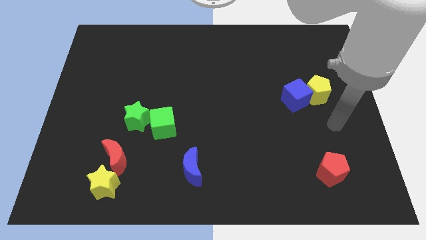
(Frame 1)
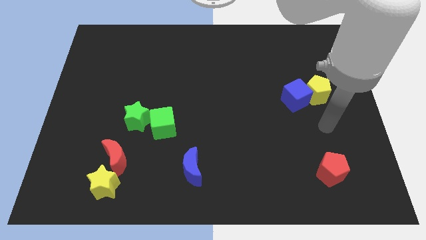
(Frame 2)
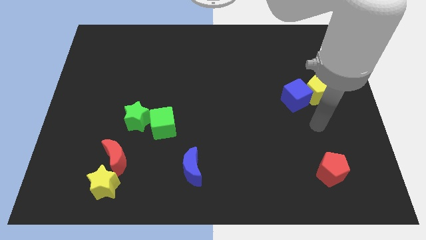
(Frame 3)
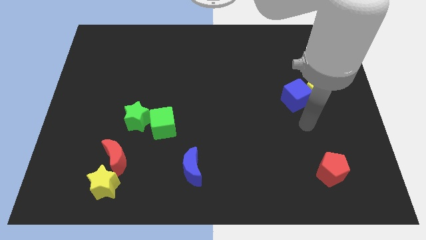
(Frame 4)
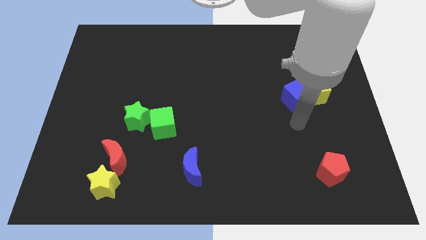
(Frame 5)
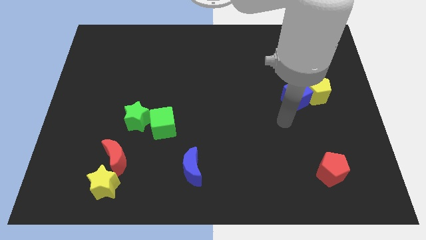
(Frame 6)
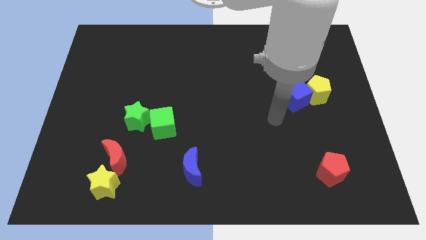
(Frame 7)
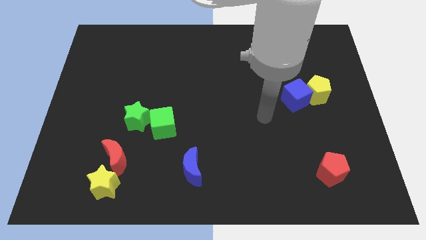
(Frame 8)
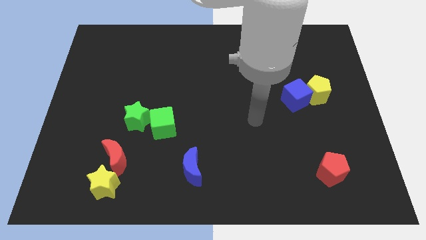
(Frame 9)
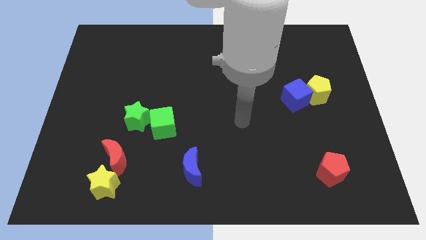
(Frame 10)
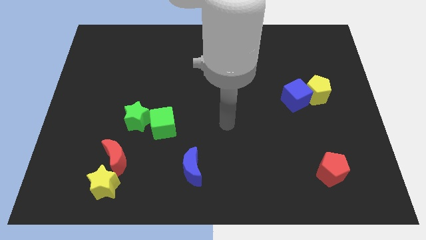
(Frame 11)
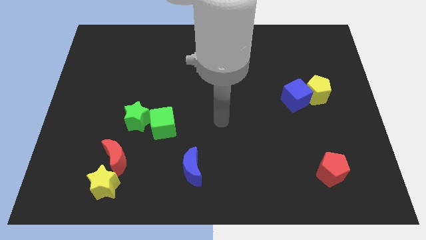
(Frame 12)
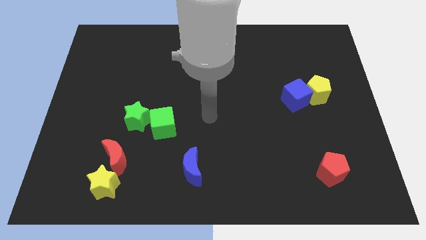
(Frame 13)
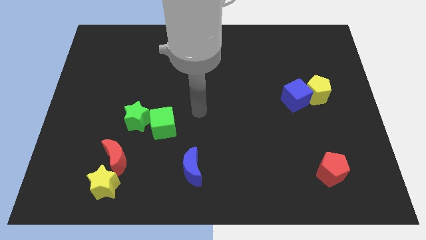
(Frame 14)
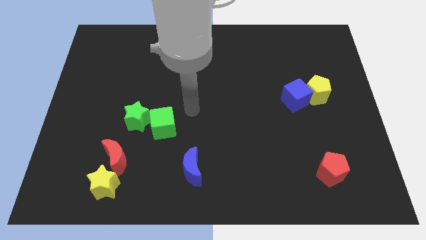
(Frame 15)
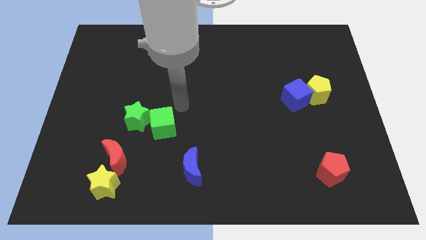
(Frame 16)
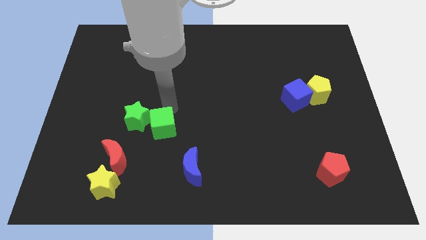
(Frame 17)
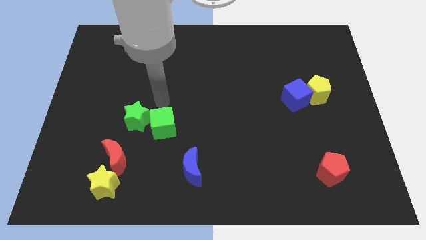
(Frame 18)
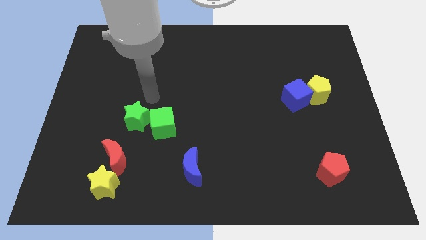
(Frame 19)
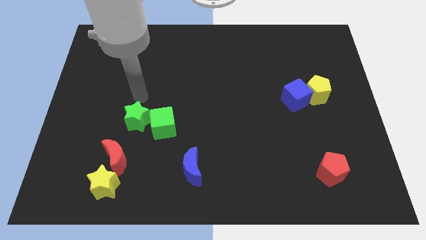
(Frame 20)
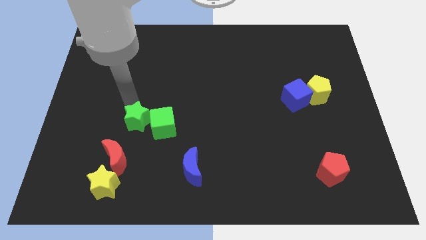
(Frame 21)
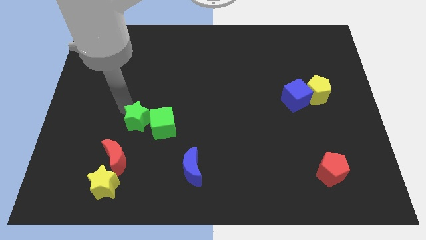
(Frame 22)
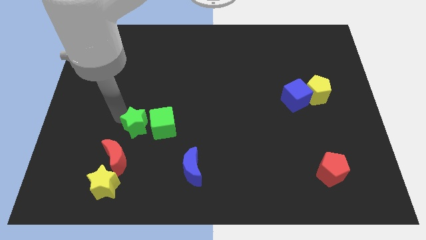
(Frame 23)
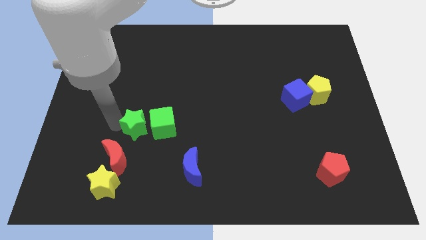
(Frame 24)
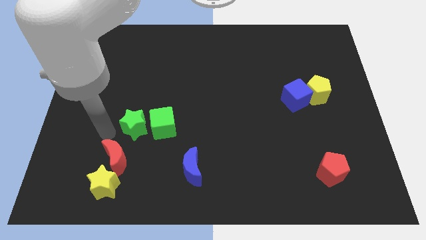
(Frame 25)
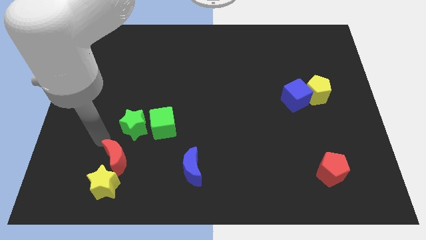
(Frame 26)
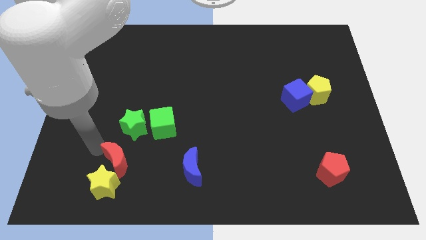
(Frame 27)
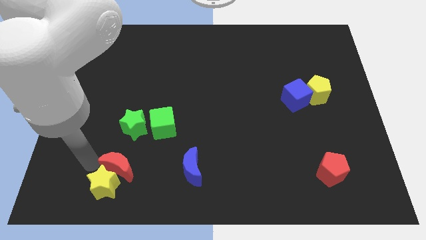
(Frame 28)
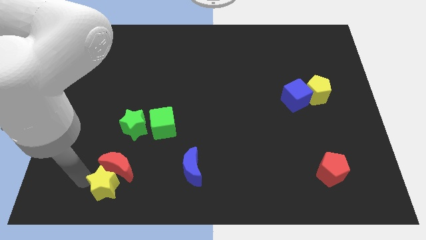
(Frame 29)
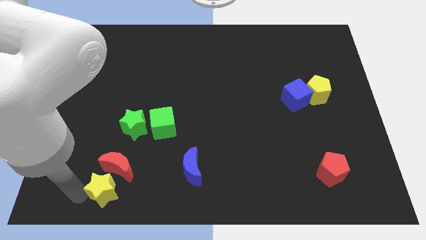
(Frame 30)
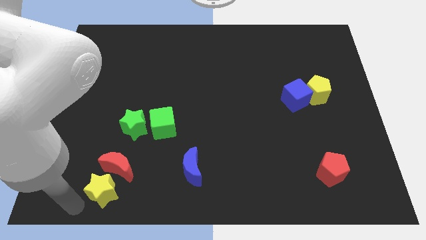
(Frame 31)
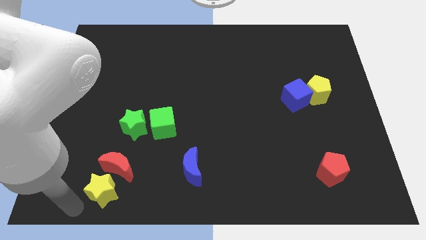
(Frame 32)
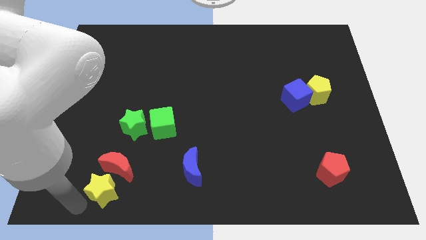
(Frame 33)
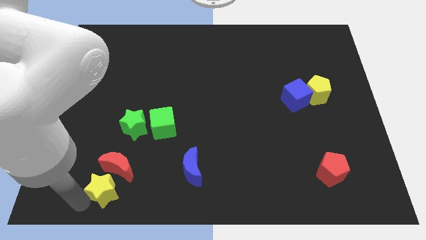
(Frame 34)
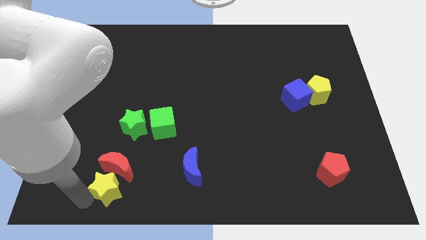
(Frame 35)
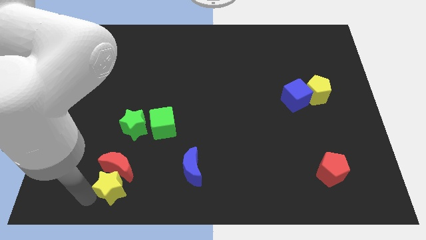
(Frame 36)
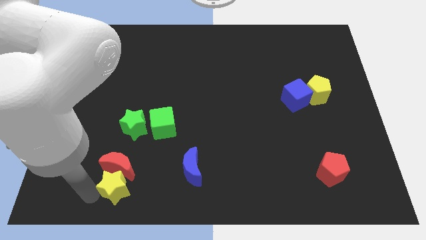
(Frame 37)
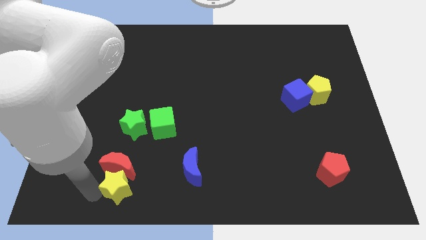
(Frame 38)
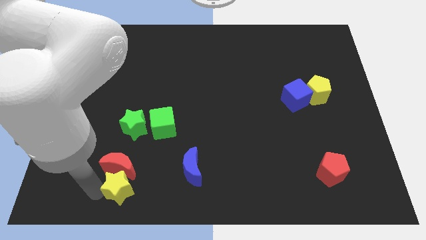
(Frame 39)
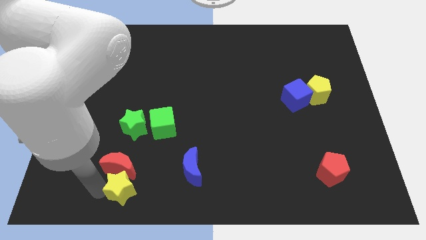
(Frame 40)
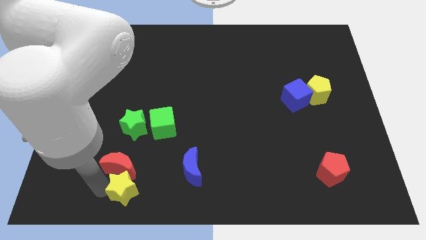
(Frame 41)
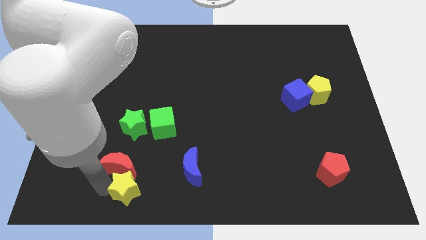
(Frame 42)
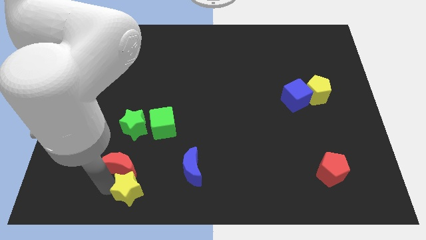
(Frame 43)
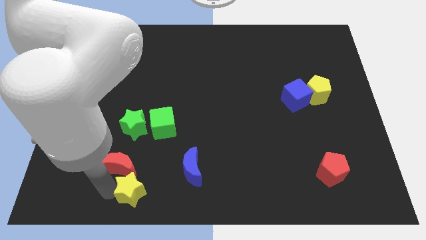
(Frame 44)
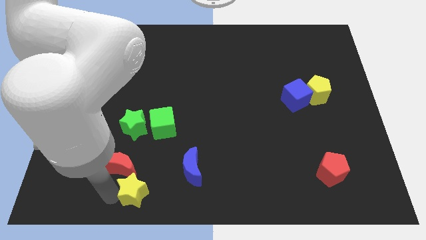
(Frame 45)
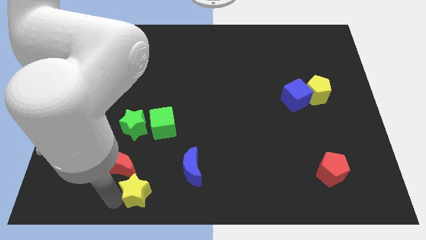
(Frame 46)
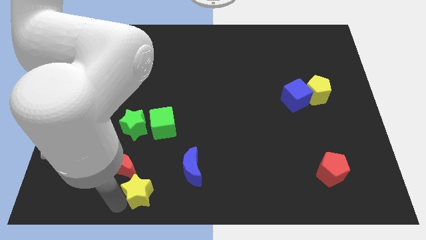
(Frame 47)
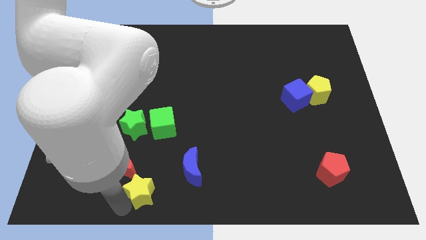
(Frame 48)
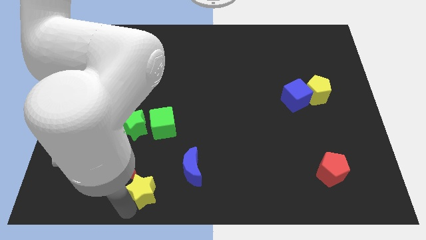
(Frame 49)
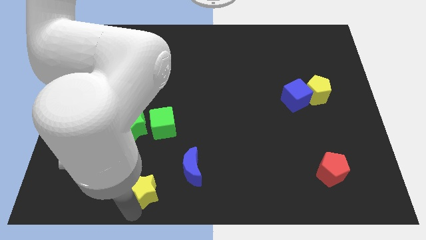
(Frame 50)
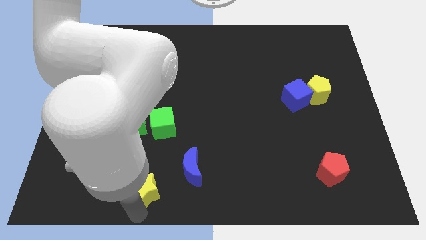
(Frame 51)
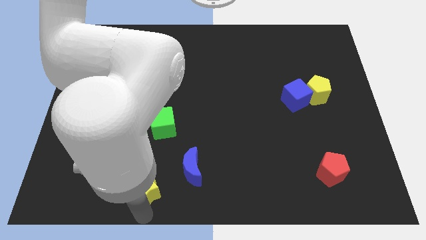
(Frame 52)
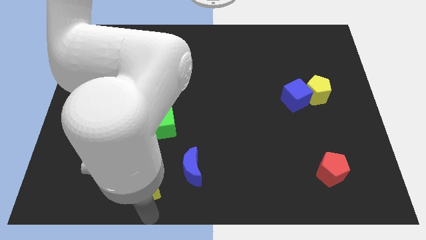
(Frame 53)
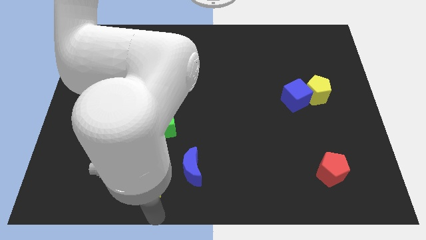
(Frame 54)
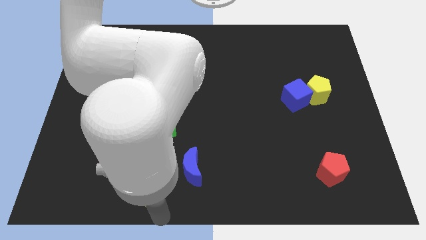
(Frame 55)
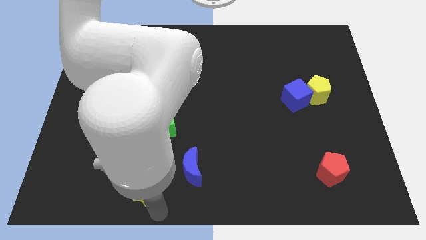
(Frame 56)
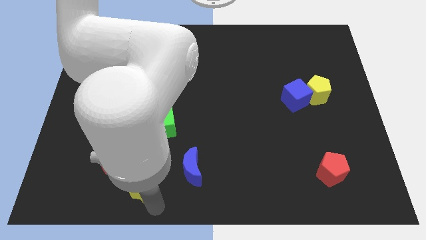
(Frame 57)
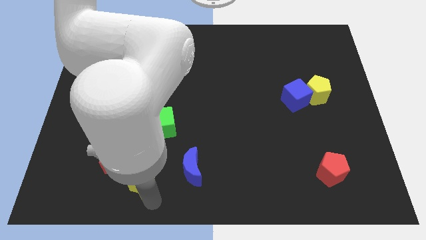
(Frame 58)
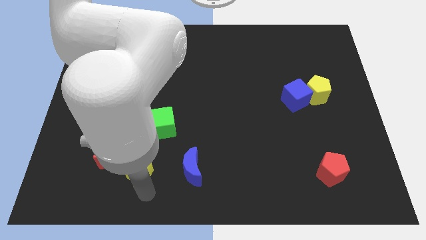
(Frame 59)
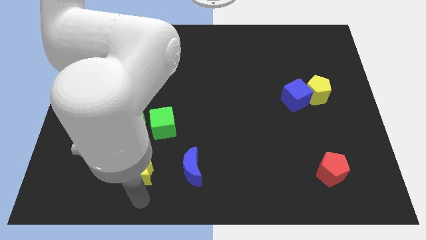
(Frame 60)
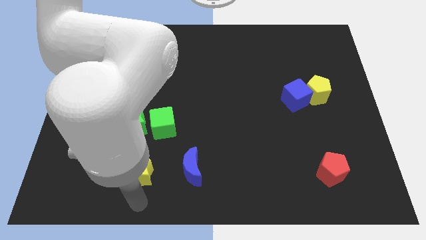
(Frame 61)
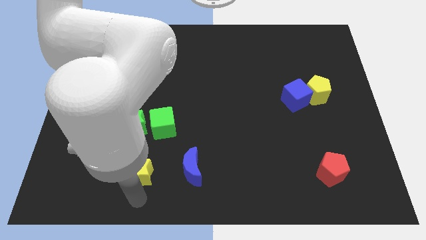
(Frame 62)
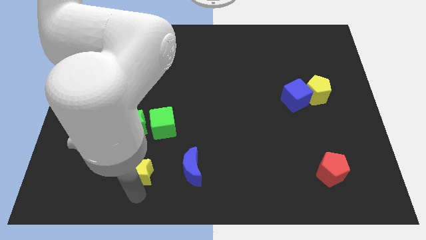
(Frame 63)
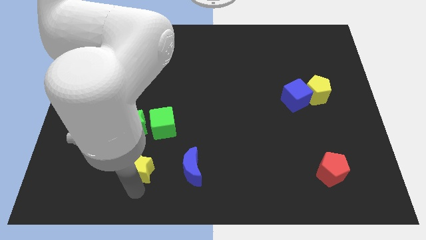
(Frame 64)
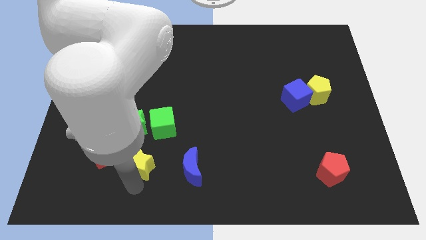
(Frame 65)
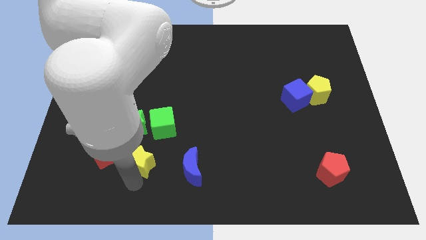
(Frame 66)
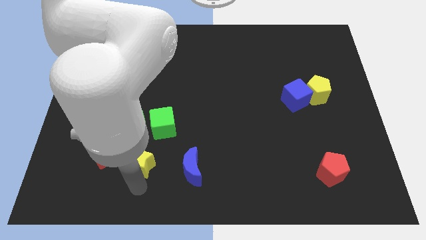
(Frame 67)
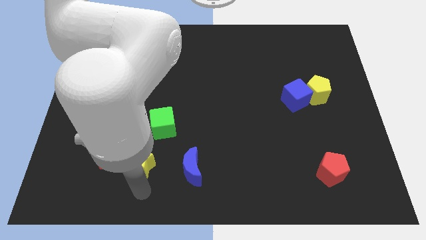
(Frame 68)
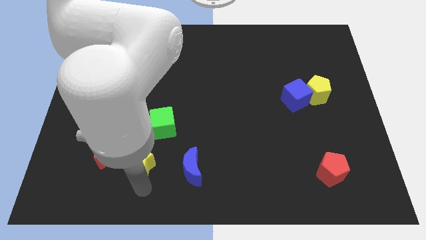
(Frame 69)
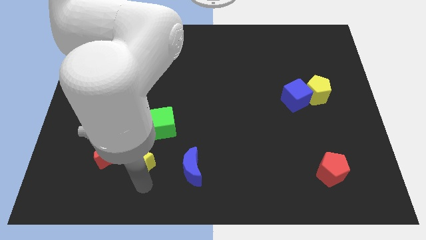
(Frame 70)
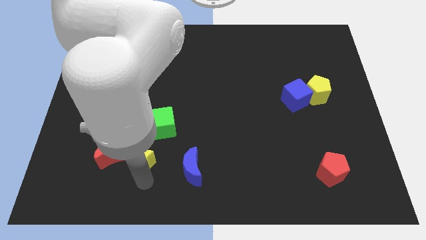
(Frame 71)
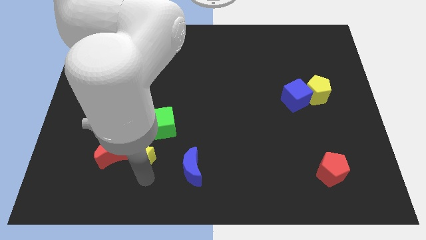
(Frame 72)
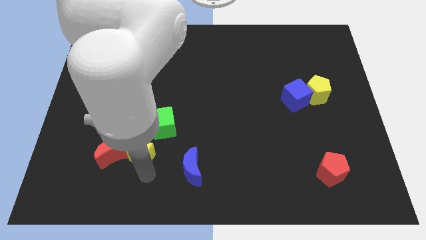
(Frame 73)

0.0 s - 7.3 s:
slide the yellow star diagonally up and to the right of the red moon

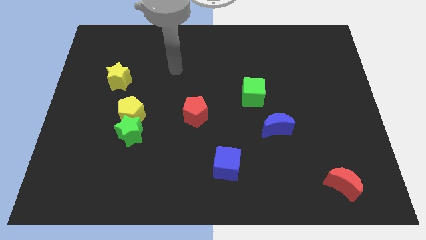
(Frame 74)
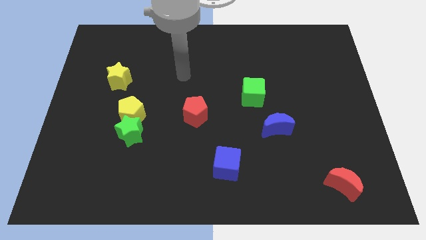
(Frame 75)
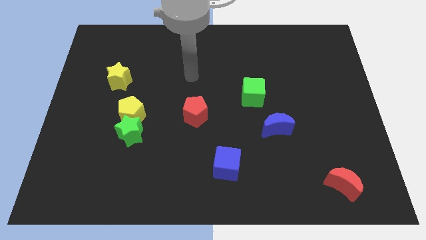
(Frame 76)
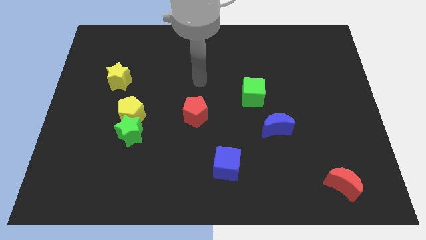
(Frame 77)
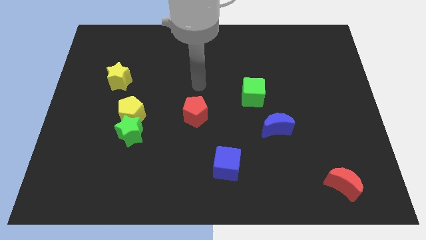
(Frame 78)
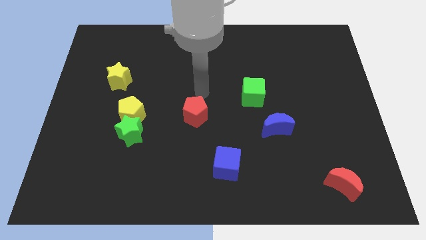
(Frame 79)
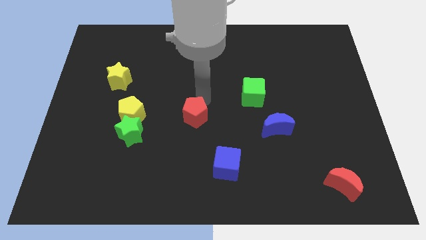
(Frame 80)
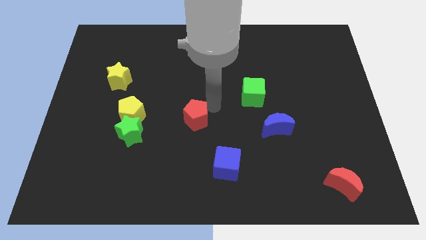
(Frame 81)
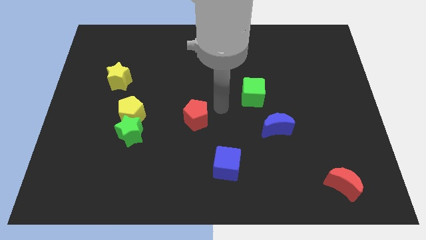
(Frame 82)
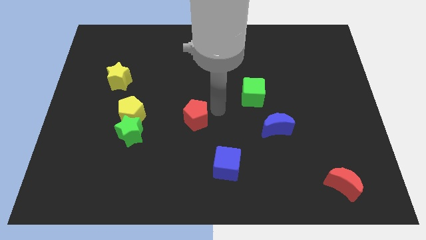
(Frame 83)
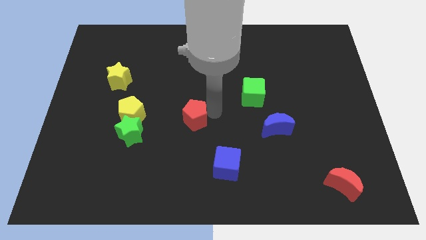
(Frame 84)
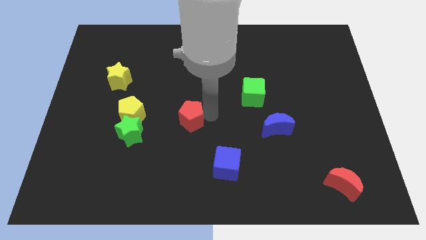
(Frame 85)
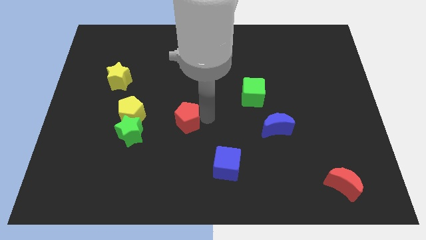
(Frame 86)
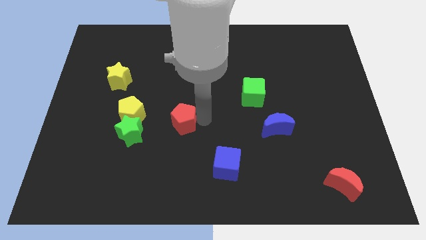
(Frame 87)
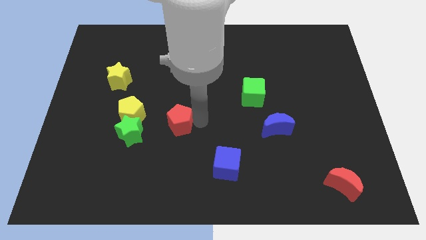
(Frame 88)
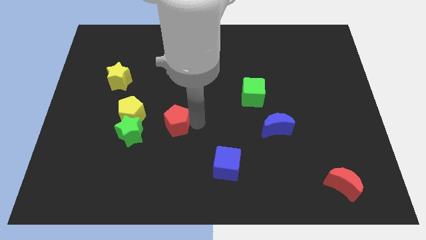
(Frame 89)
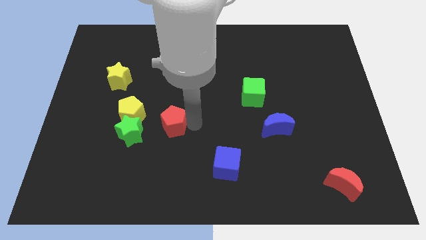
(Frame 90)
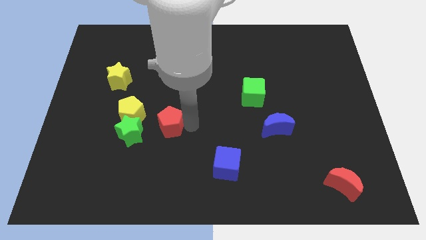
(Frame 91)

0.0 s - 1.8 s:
put the red pentagon diagonally down and to the right of the yellow pentagon
